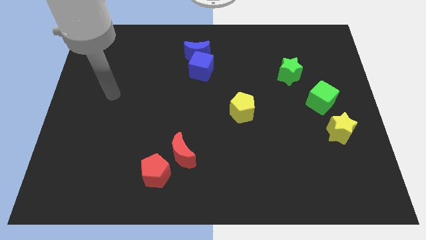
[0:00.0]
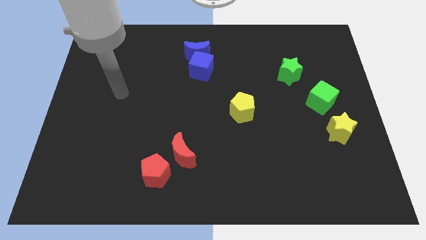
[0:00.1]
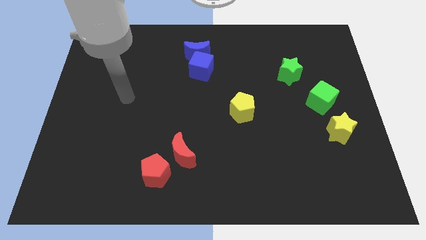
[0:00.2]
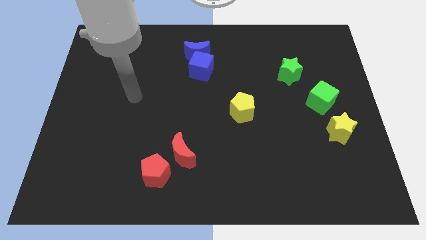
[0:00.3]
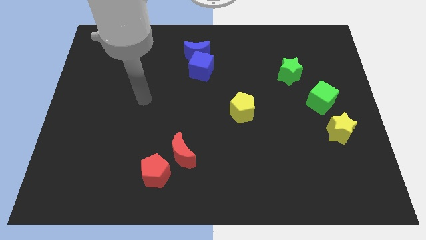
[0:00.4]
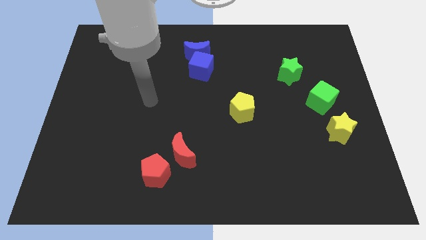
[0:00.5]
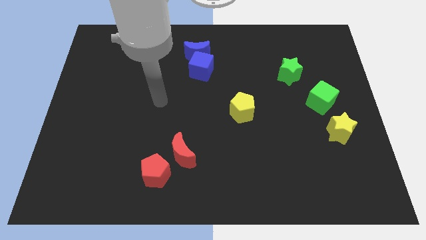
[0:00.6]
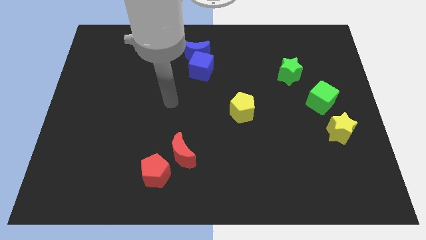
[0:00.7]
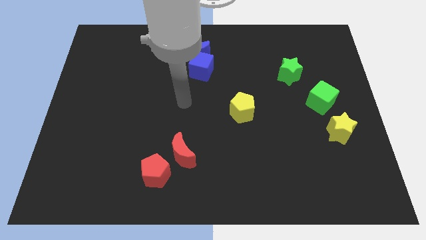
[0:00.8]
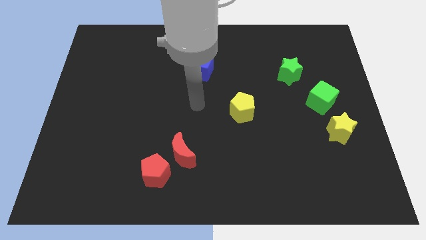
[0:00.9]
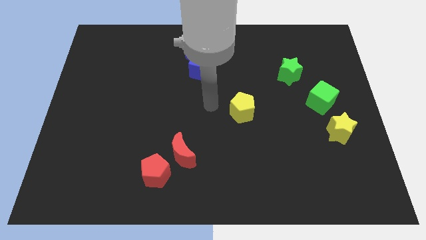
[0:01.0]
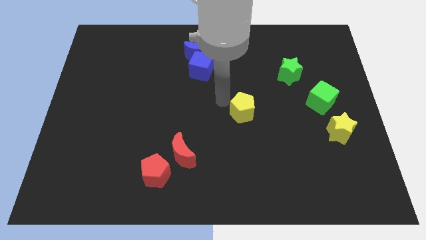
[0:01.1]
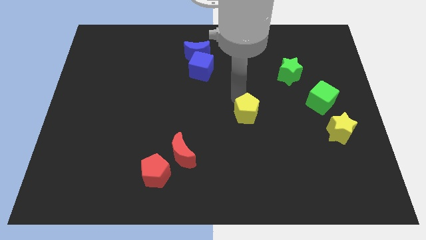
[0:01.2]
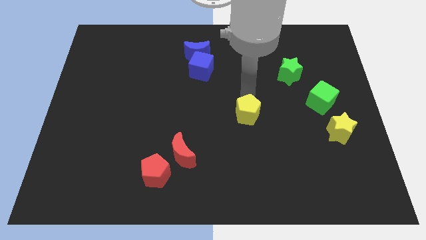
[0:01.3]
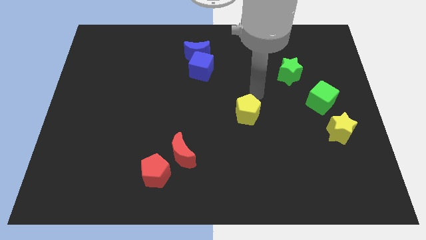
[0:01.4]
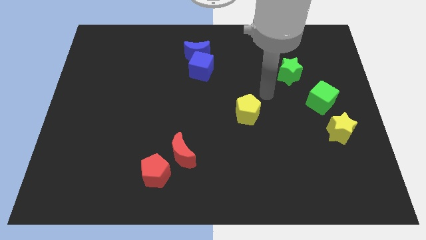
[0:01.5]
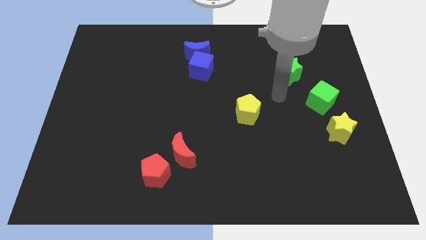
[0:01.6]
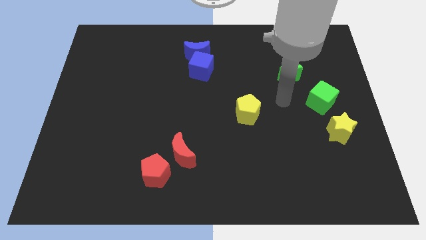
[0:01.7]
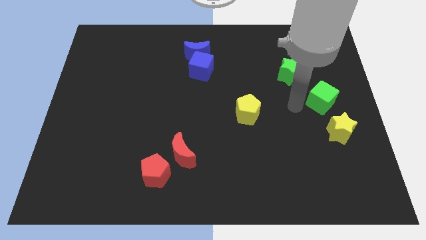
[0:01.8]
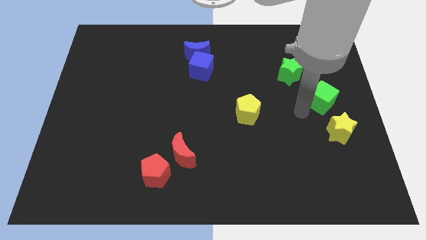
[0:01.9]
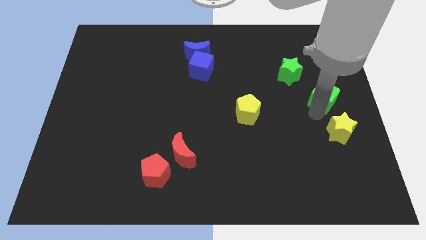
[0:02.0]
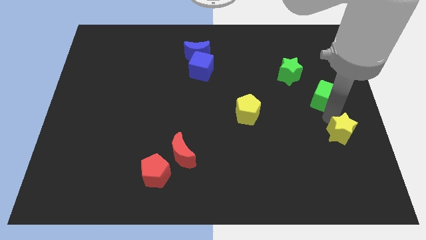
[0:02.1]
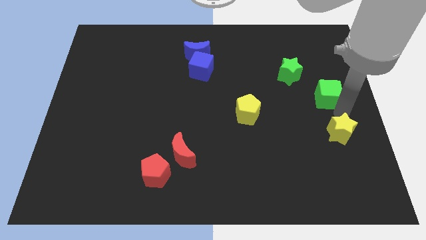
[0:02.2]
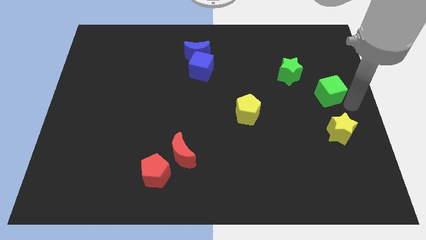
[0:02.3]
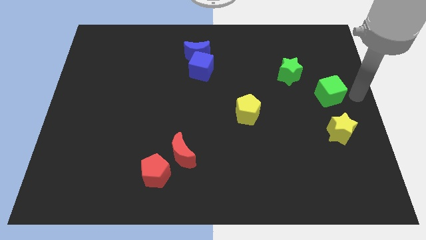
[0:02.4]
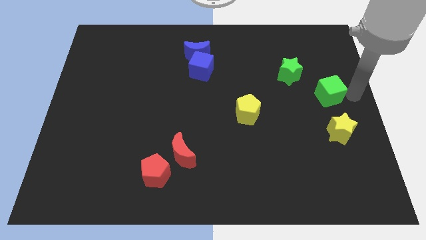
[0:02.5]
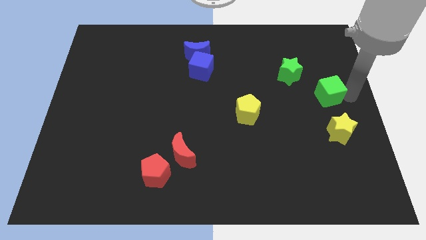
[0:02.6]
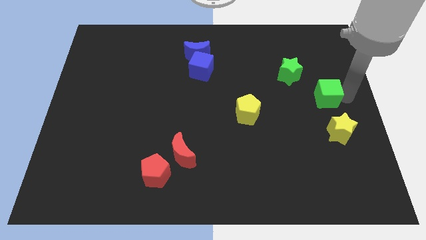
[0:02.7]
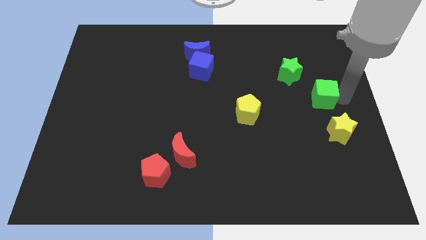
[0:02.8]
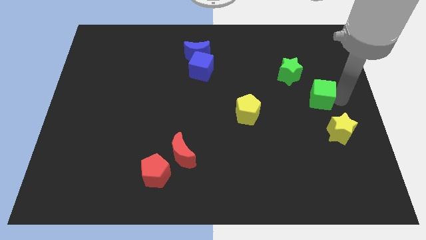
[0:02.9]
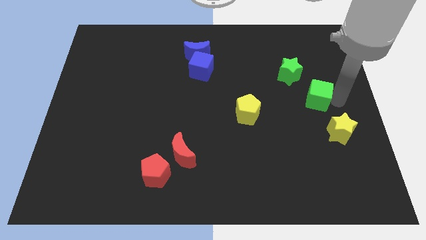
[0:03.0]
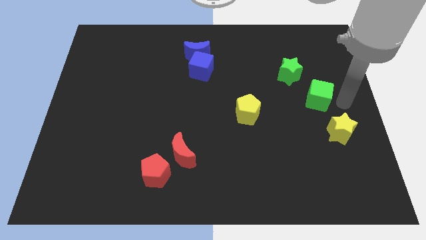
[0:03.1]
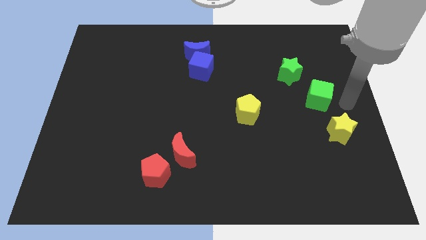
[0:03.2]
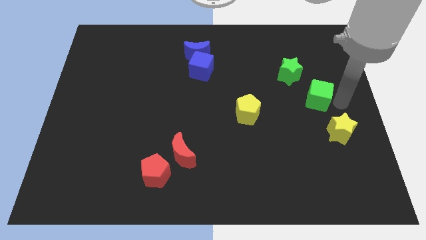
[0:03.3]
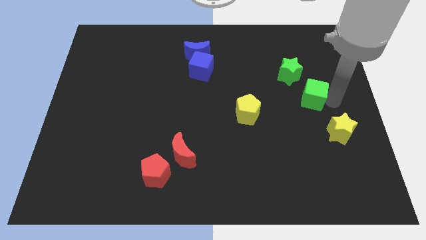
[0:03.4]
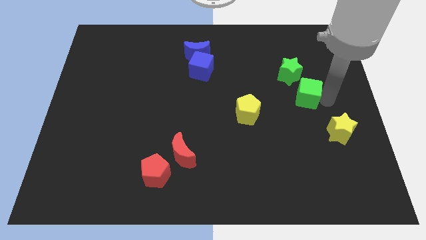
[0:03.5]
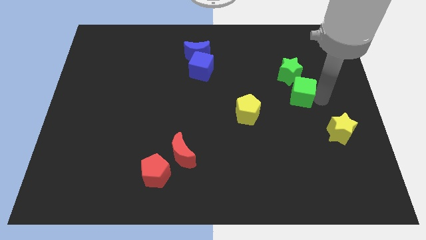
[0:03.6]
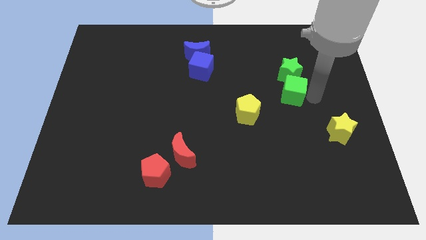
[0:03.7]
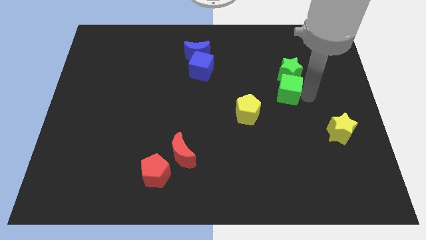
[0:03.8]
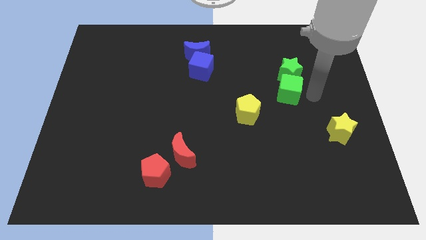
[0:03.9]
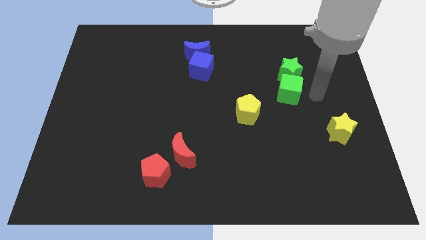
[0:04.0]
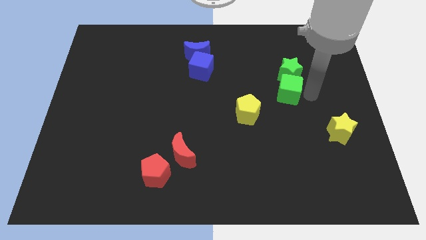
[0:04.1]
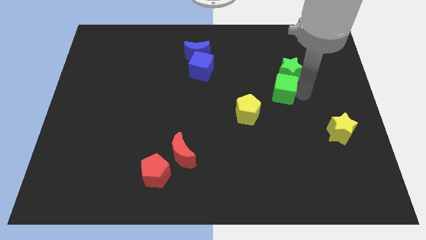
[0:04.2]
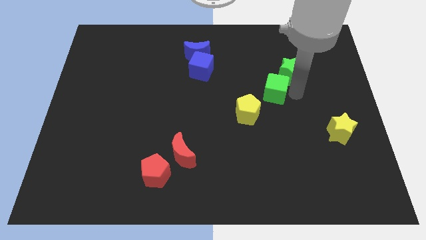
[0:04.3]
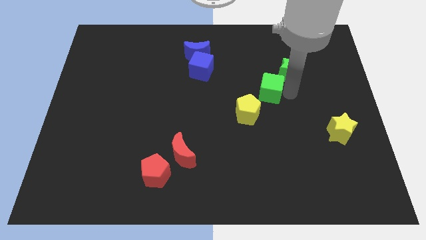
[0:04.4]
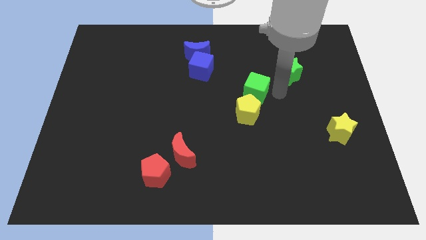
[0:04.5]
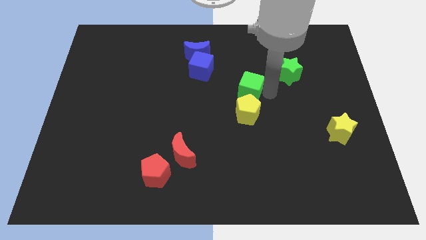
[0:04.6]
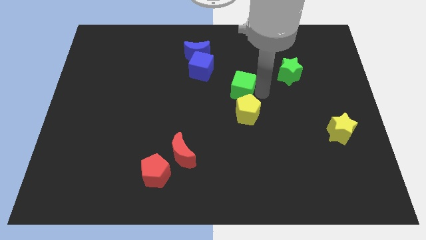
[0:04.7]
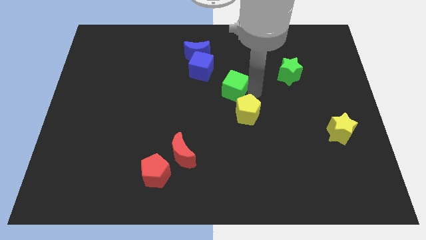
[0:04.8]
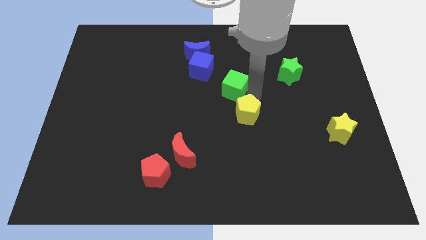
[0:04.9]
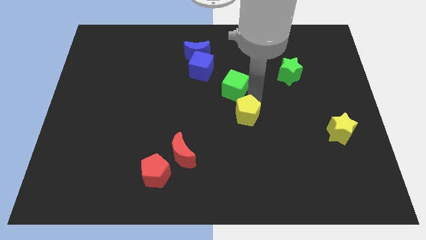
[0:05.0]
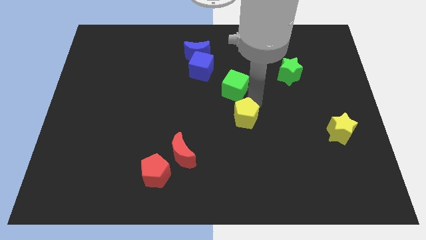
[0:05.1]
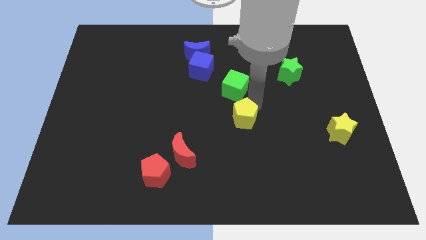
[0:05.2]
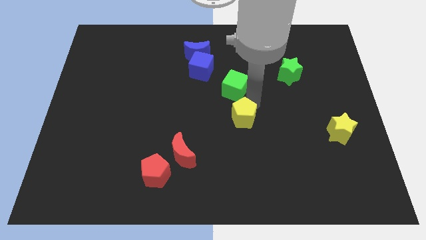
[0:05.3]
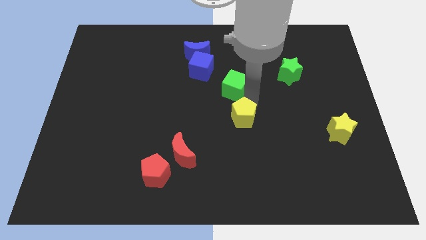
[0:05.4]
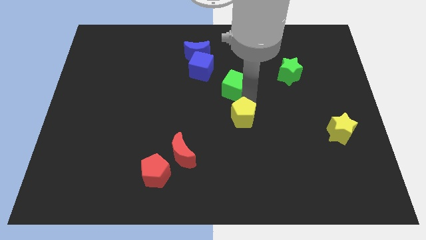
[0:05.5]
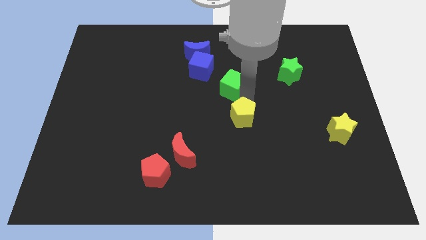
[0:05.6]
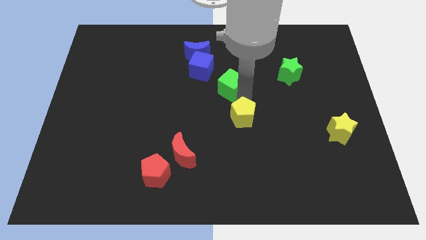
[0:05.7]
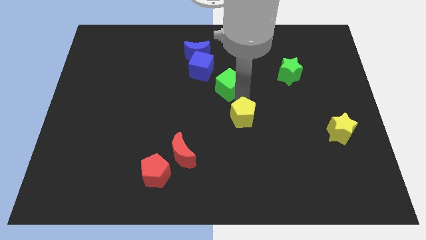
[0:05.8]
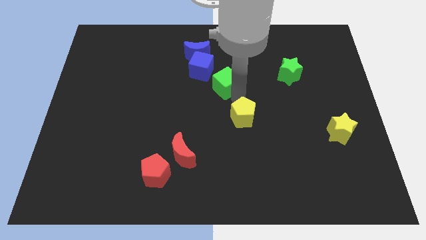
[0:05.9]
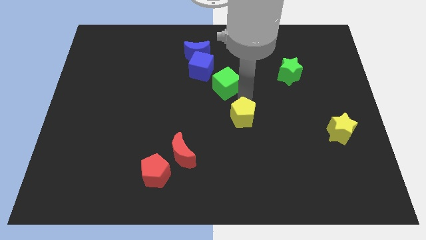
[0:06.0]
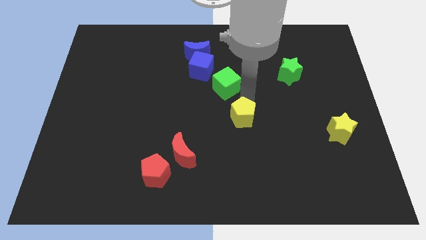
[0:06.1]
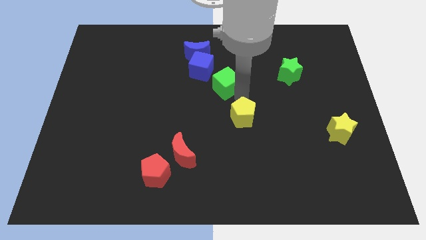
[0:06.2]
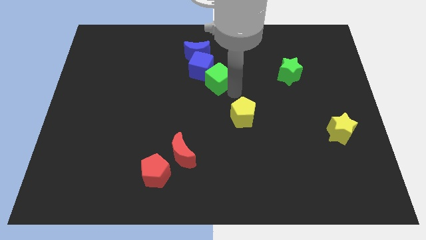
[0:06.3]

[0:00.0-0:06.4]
slide the green cube close to the blue cube

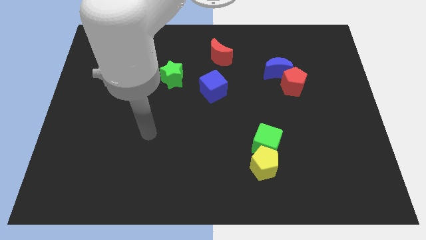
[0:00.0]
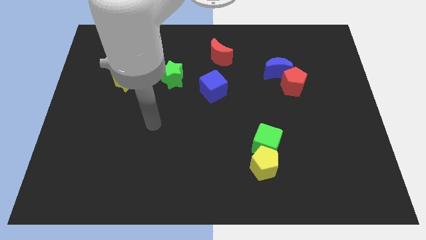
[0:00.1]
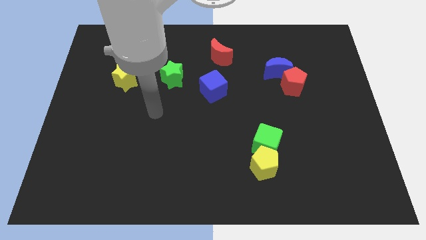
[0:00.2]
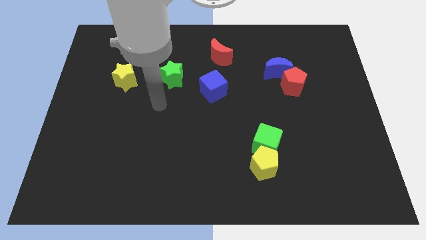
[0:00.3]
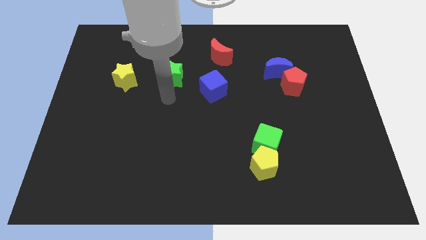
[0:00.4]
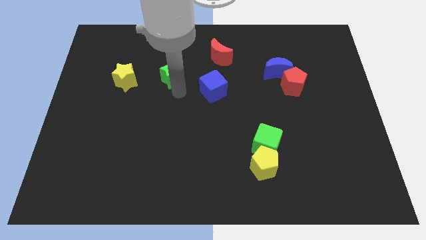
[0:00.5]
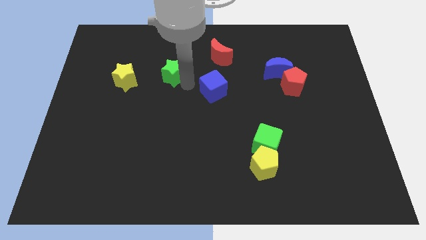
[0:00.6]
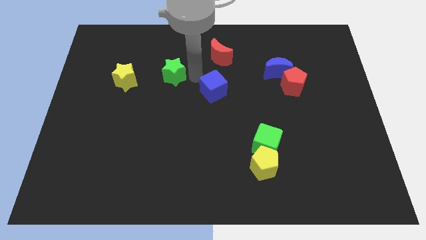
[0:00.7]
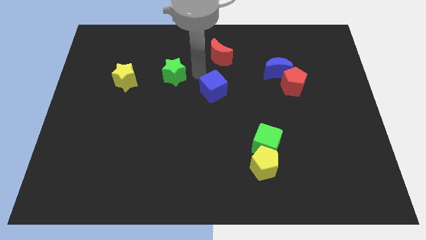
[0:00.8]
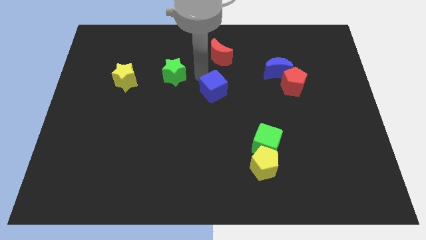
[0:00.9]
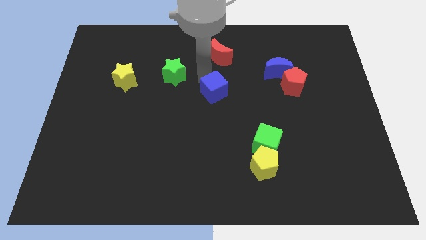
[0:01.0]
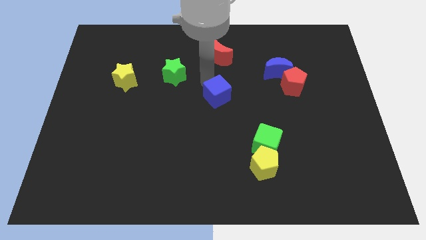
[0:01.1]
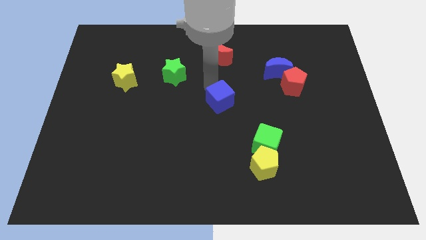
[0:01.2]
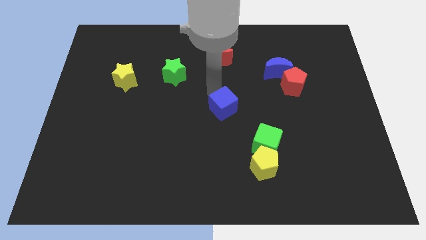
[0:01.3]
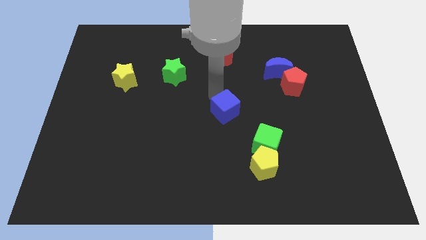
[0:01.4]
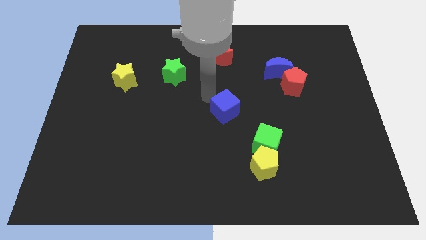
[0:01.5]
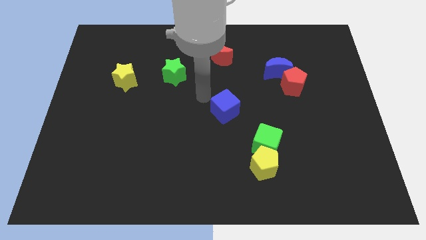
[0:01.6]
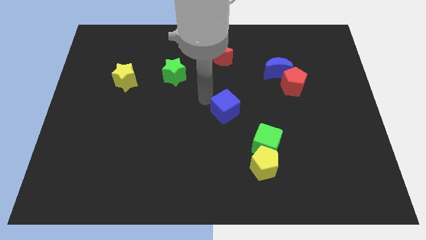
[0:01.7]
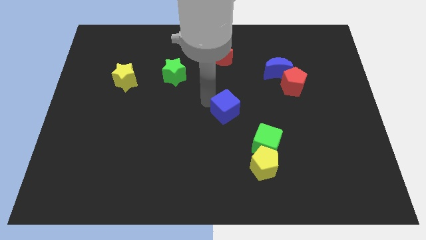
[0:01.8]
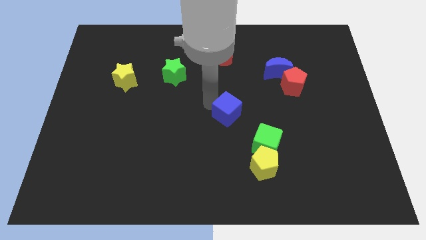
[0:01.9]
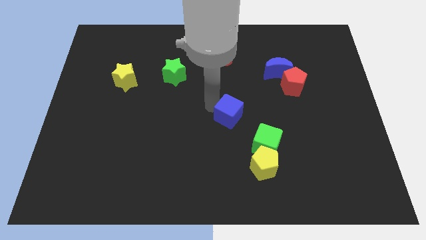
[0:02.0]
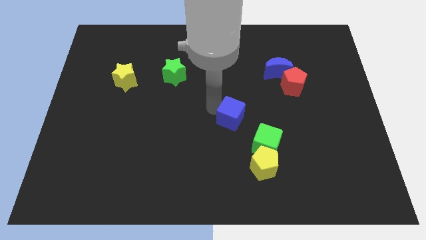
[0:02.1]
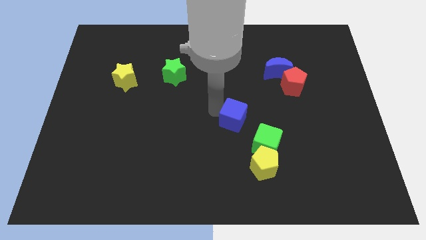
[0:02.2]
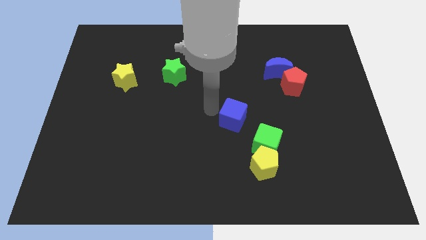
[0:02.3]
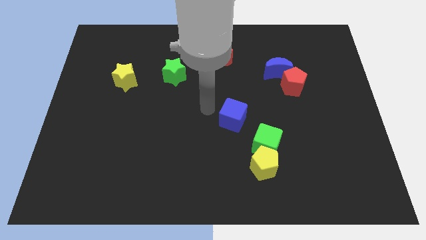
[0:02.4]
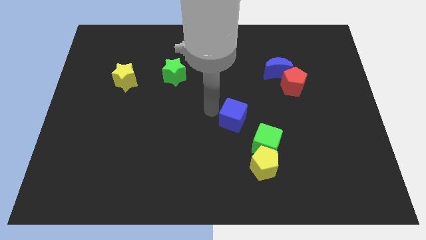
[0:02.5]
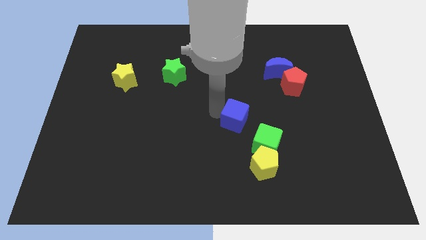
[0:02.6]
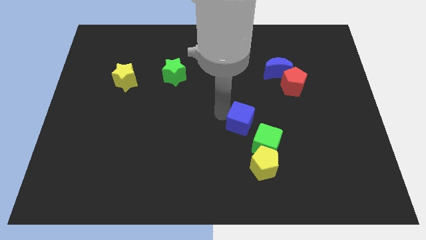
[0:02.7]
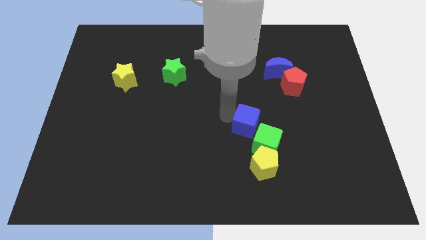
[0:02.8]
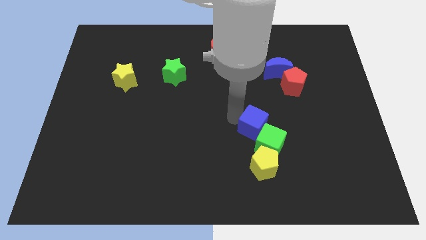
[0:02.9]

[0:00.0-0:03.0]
slide the blue cube next to the green cube
